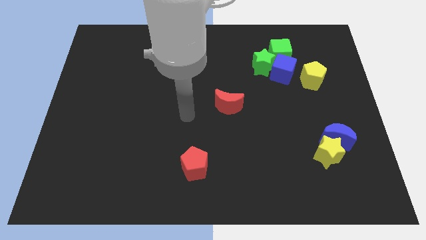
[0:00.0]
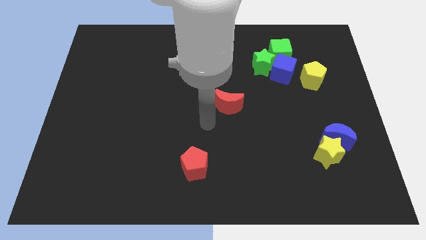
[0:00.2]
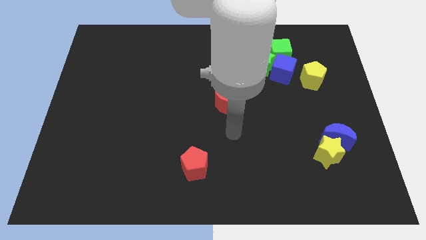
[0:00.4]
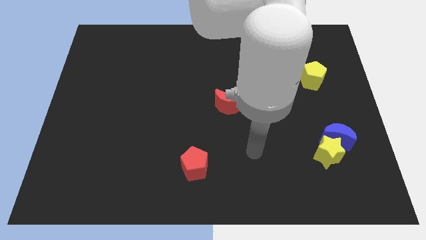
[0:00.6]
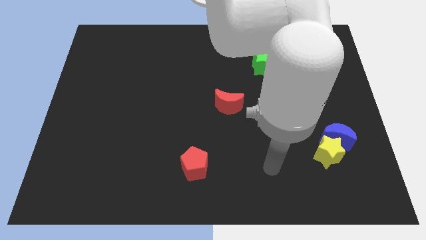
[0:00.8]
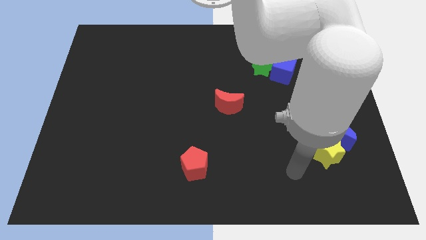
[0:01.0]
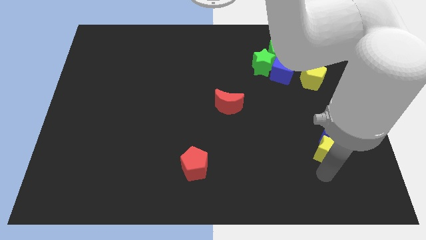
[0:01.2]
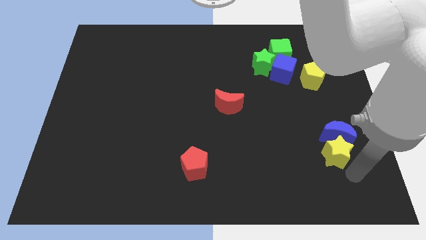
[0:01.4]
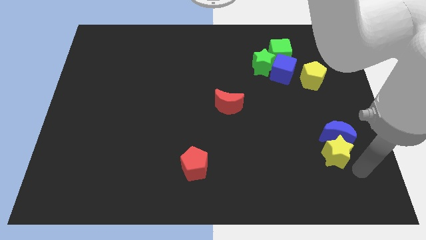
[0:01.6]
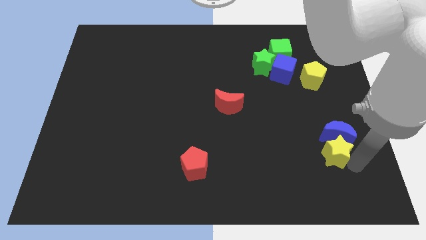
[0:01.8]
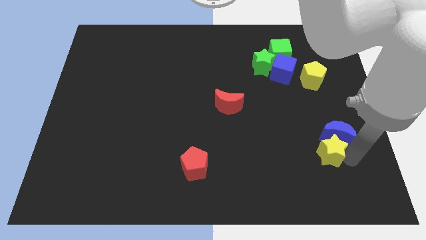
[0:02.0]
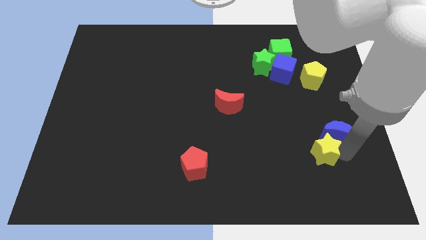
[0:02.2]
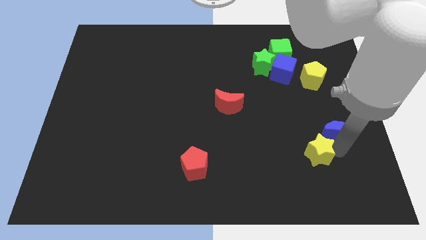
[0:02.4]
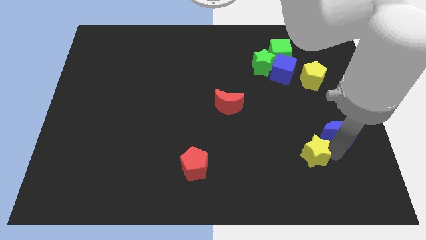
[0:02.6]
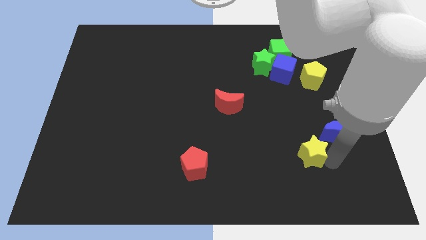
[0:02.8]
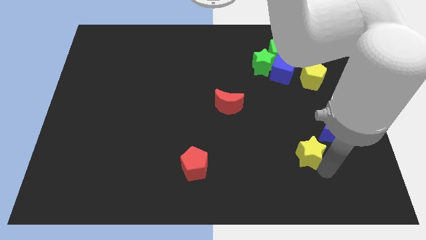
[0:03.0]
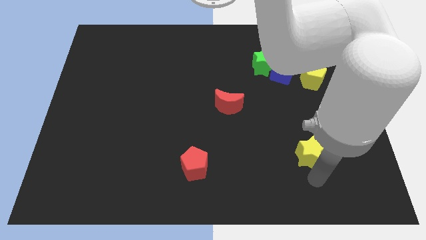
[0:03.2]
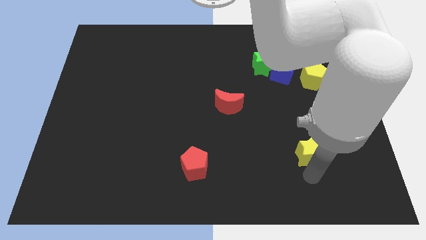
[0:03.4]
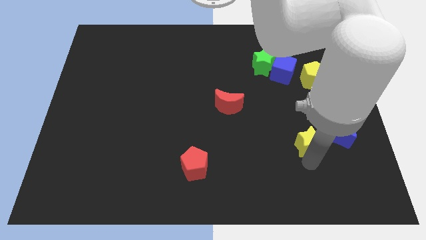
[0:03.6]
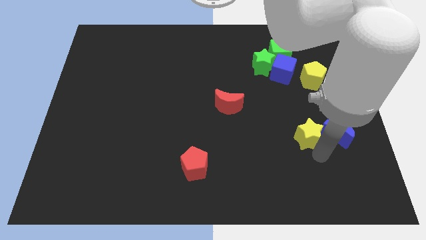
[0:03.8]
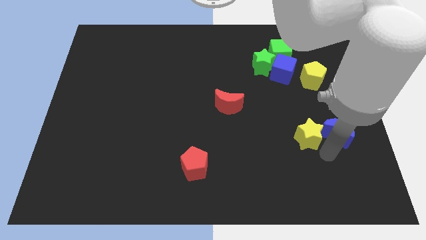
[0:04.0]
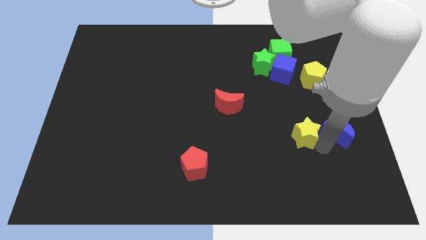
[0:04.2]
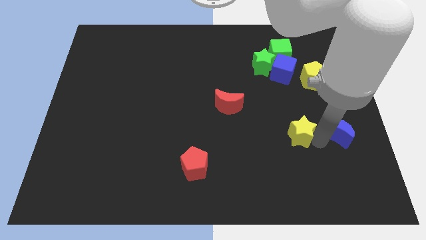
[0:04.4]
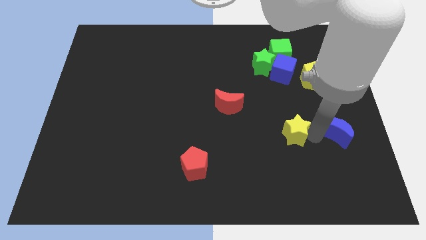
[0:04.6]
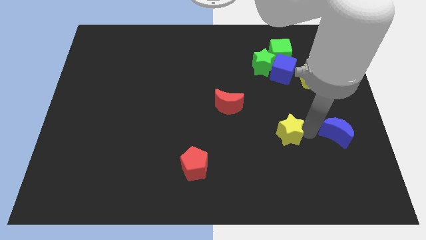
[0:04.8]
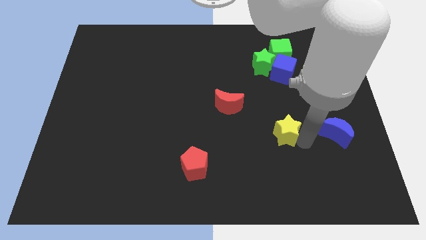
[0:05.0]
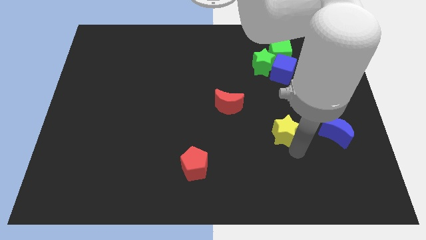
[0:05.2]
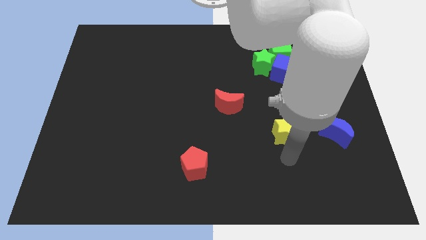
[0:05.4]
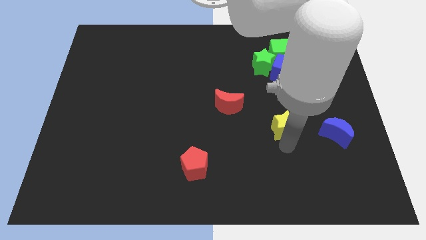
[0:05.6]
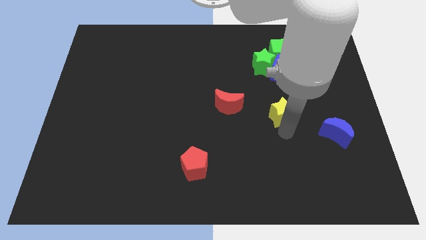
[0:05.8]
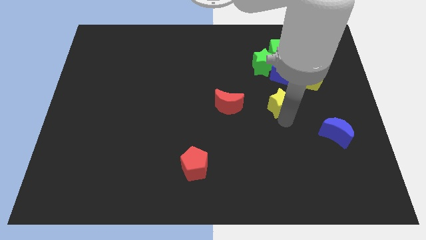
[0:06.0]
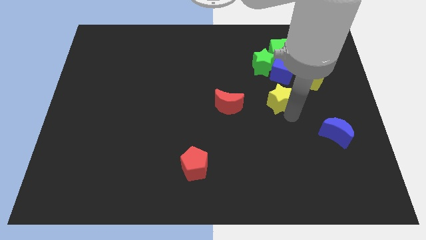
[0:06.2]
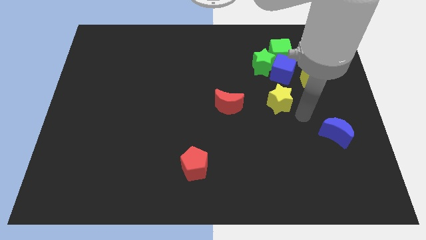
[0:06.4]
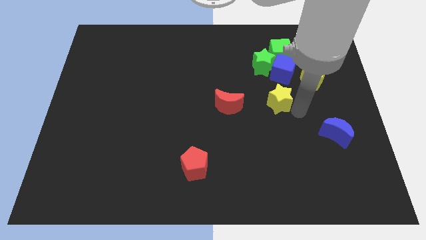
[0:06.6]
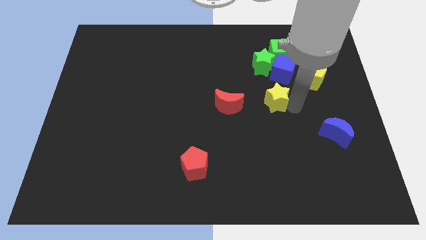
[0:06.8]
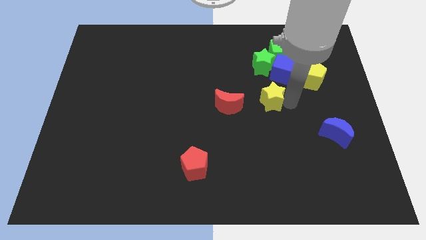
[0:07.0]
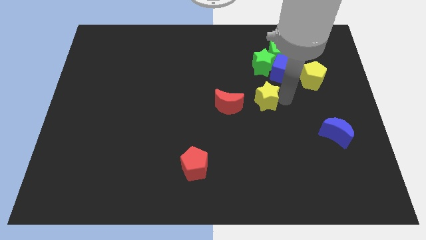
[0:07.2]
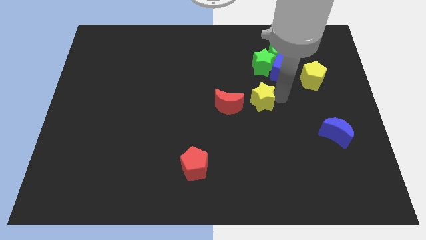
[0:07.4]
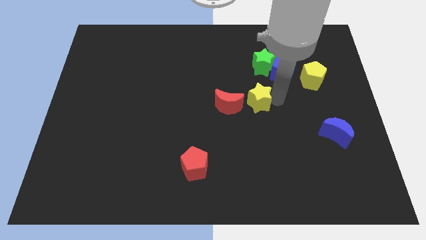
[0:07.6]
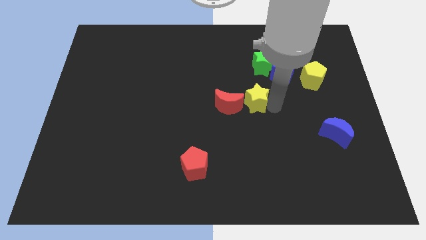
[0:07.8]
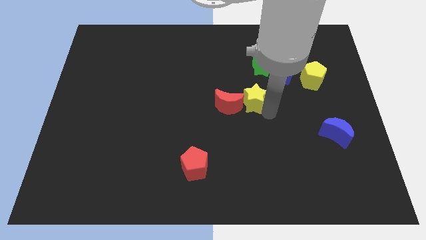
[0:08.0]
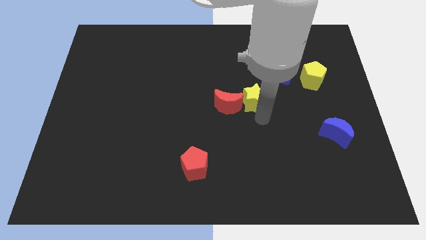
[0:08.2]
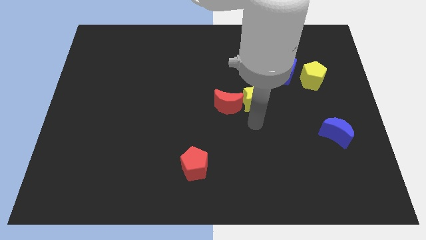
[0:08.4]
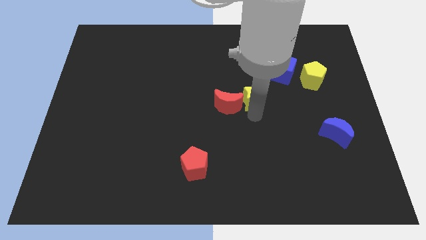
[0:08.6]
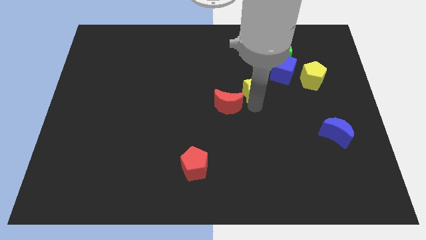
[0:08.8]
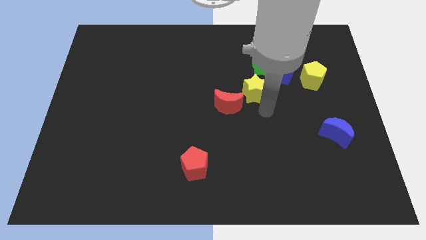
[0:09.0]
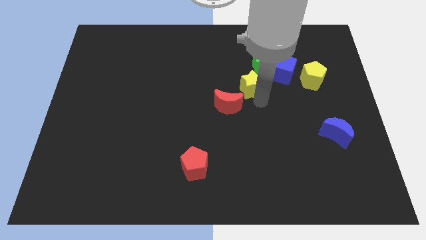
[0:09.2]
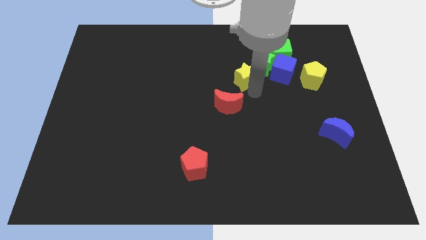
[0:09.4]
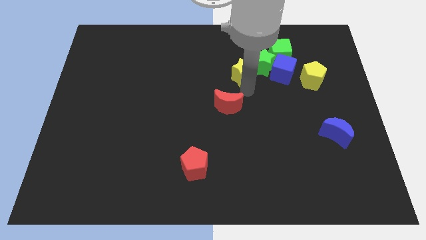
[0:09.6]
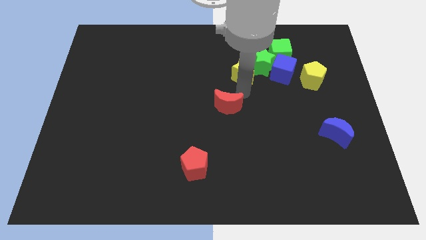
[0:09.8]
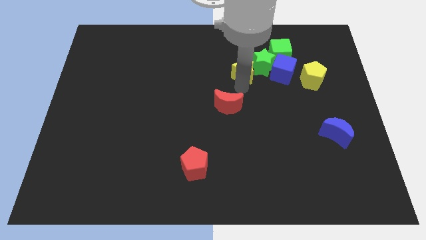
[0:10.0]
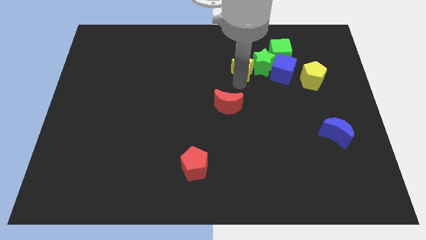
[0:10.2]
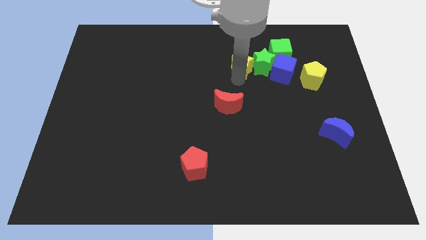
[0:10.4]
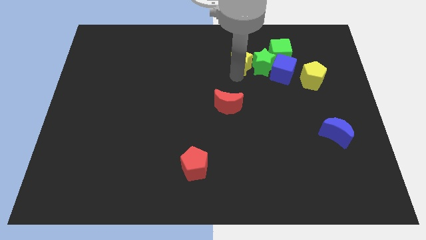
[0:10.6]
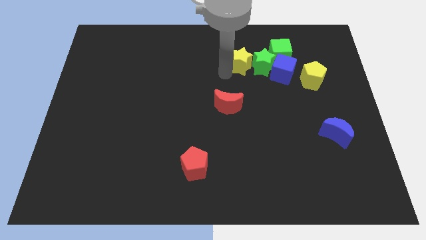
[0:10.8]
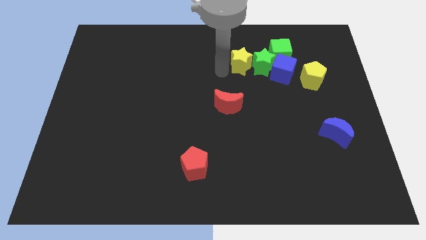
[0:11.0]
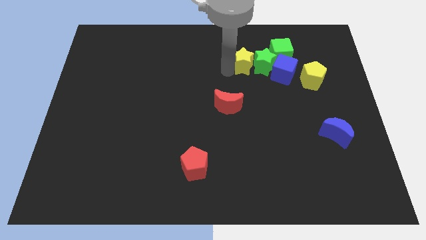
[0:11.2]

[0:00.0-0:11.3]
put the yellow star diagonally up and to the left of the blue cube

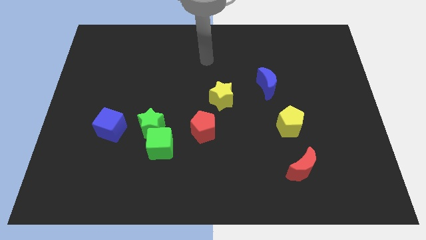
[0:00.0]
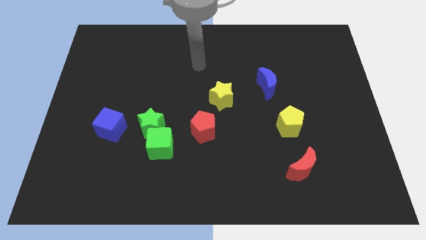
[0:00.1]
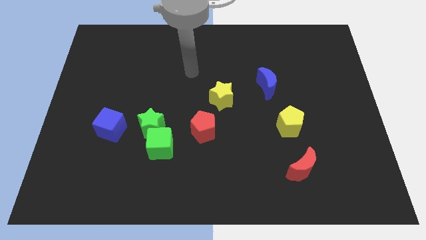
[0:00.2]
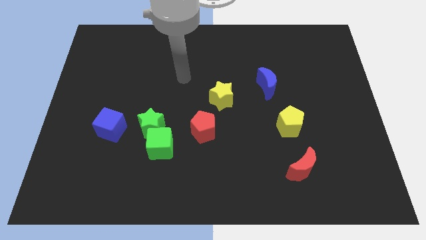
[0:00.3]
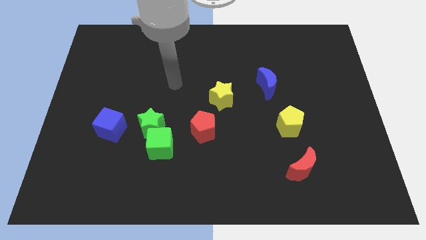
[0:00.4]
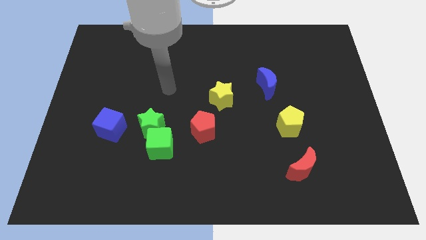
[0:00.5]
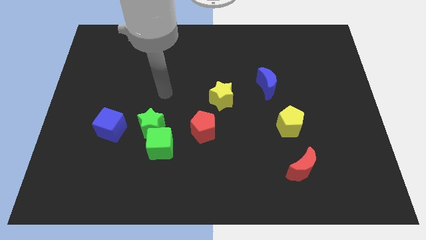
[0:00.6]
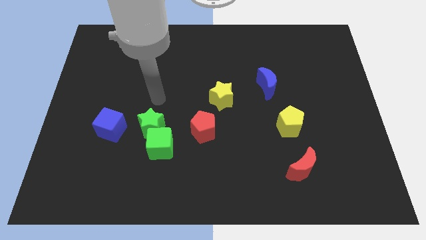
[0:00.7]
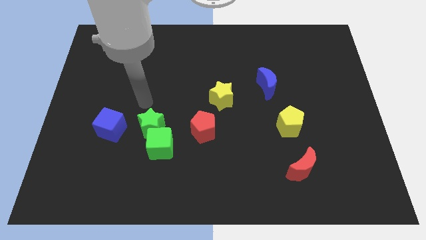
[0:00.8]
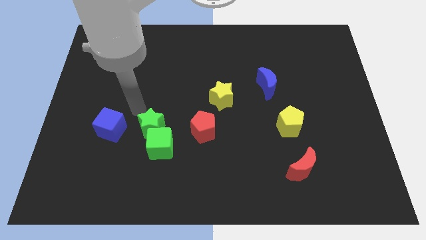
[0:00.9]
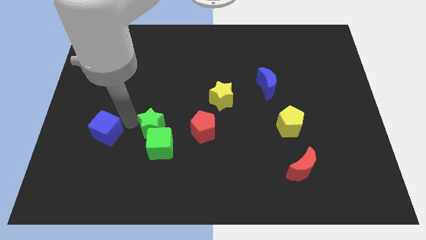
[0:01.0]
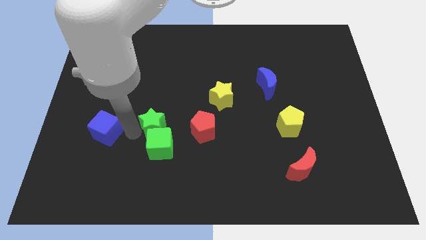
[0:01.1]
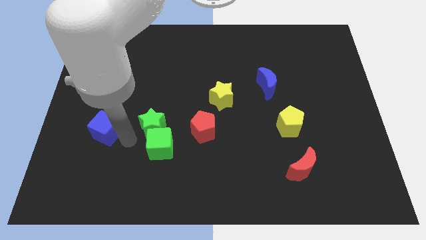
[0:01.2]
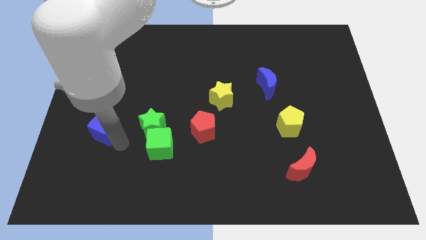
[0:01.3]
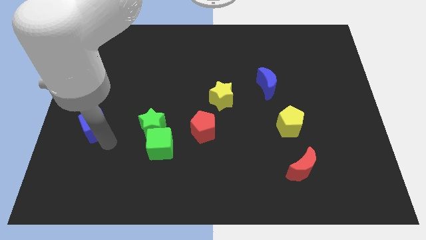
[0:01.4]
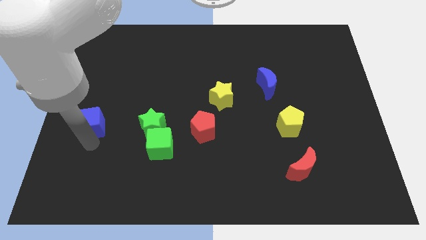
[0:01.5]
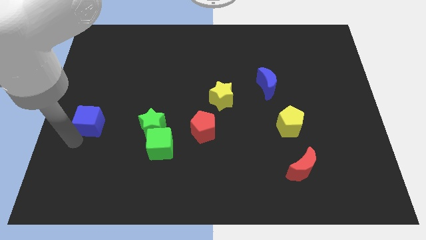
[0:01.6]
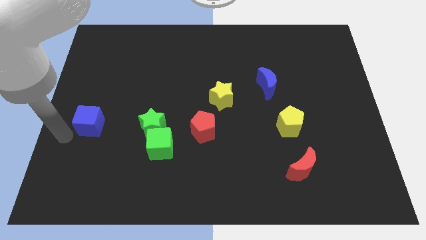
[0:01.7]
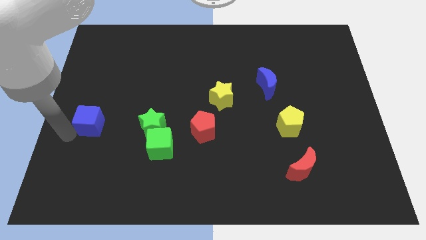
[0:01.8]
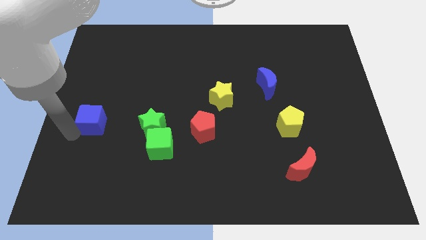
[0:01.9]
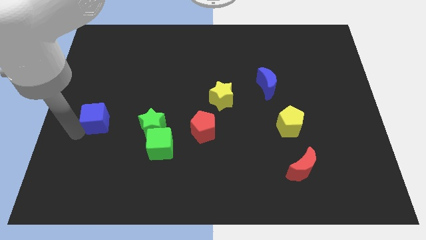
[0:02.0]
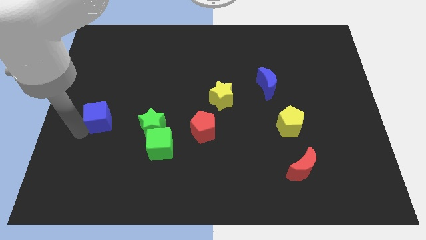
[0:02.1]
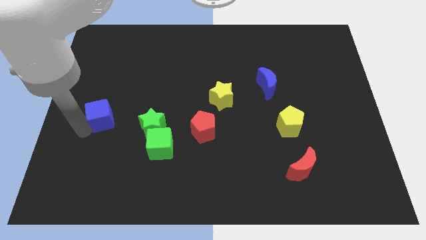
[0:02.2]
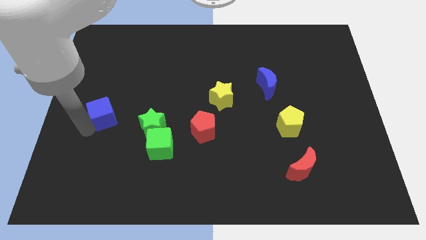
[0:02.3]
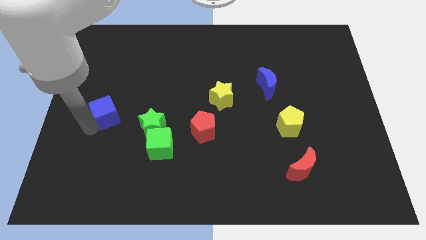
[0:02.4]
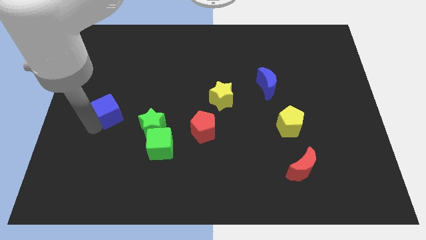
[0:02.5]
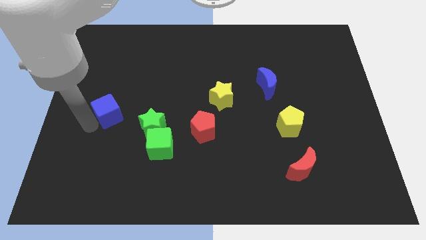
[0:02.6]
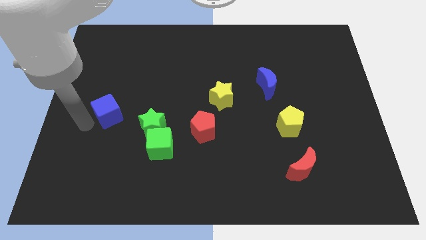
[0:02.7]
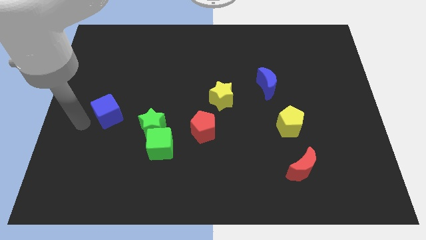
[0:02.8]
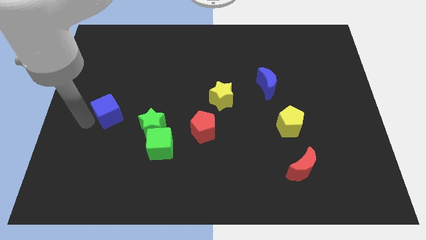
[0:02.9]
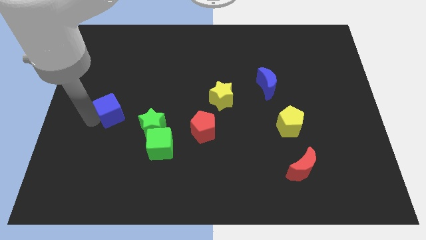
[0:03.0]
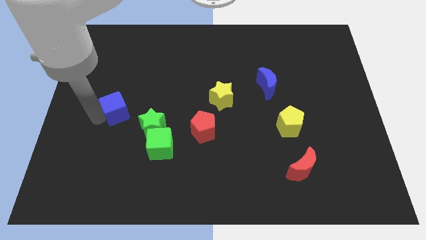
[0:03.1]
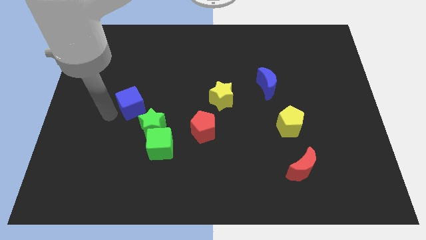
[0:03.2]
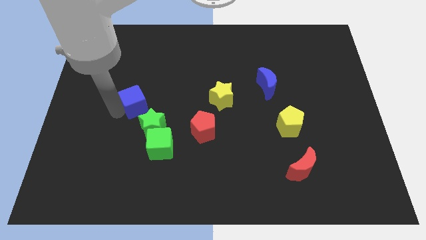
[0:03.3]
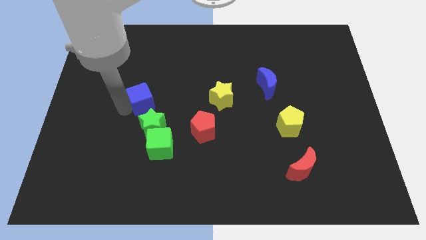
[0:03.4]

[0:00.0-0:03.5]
put the blue cube to the top side of the green star
